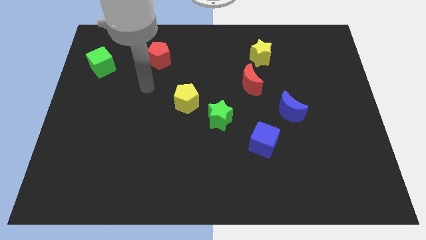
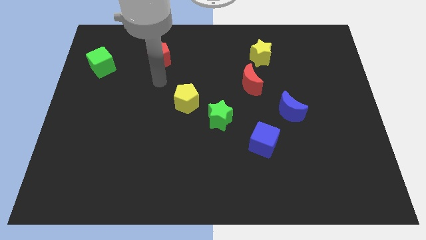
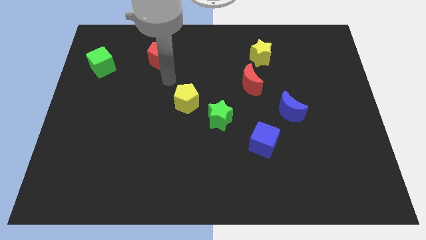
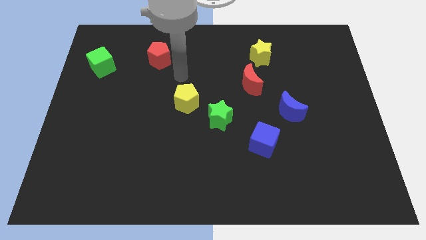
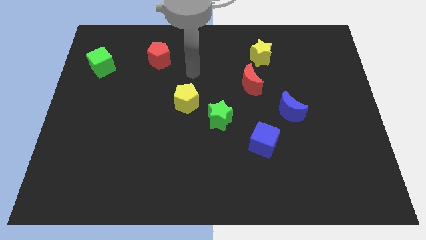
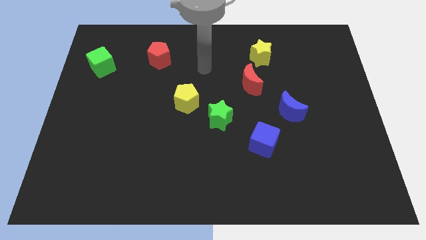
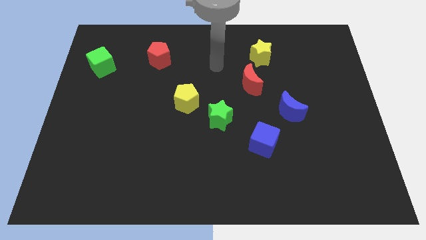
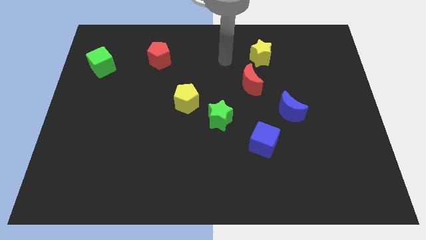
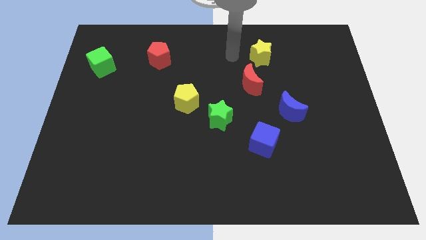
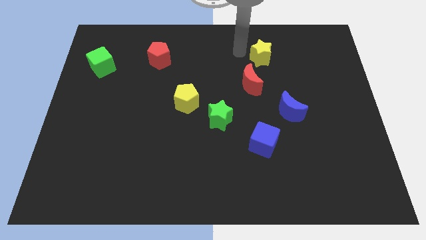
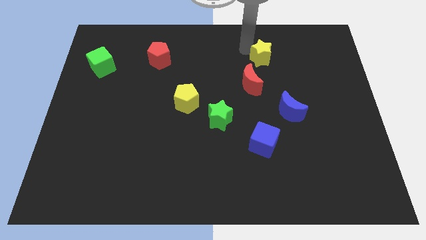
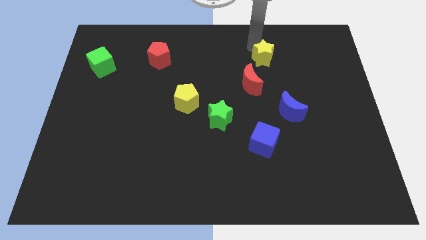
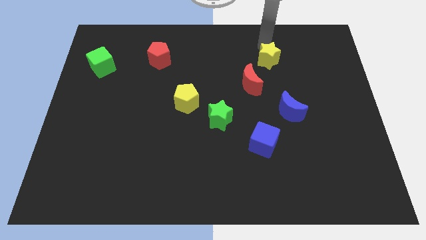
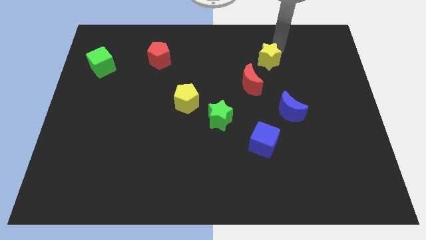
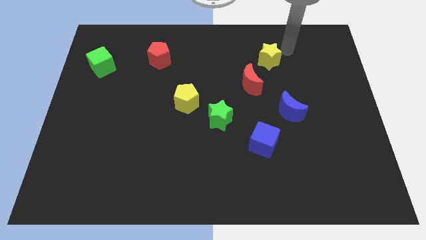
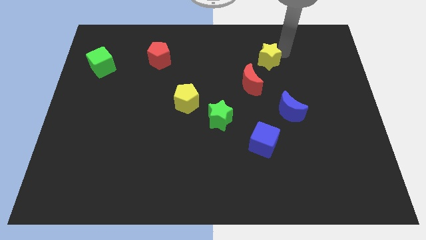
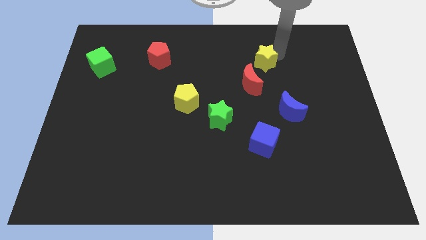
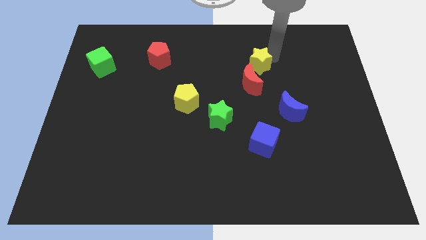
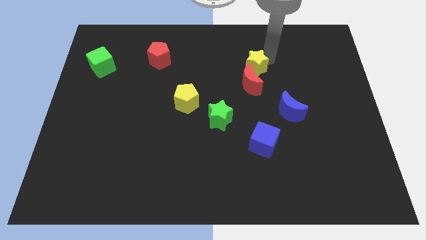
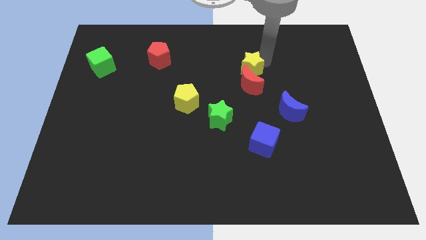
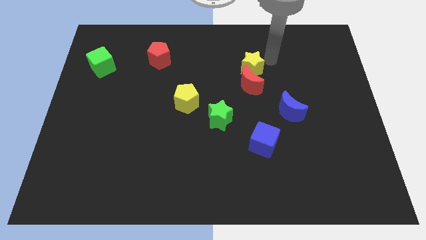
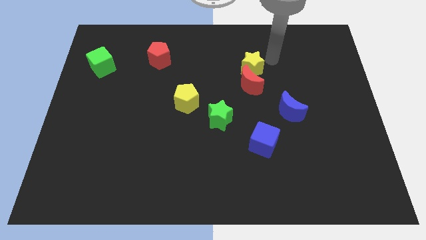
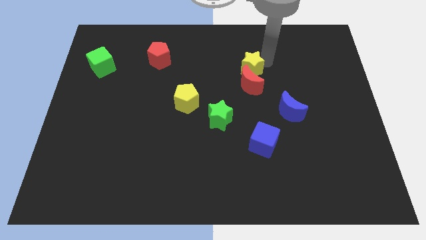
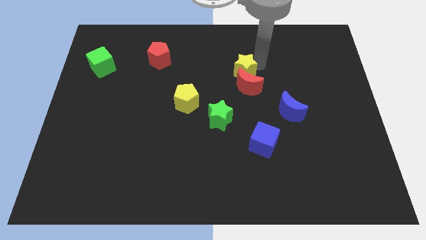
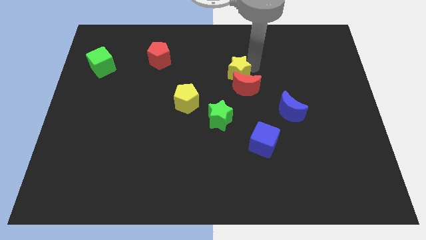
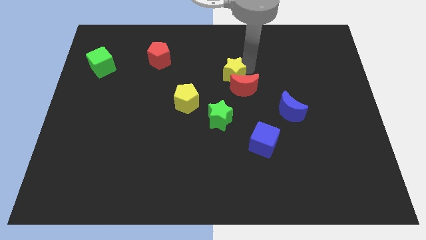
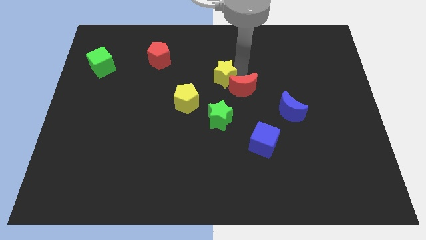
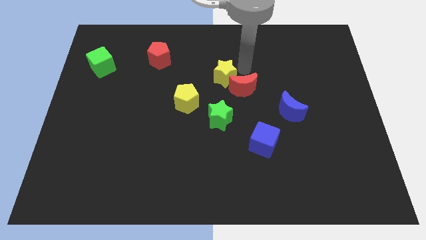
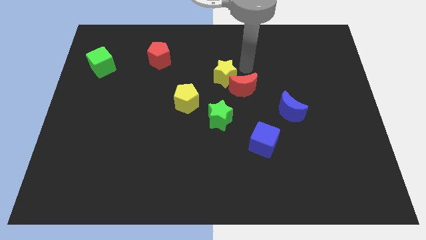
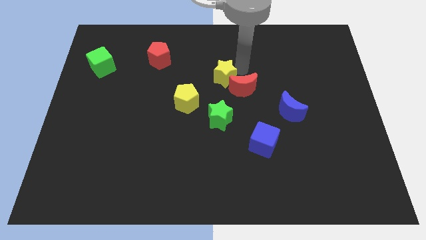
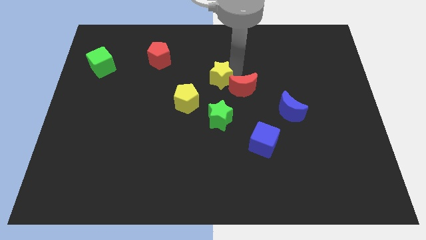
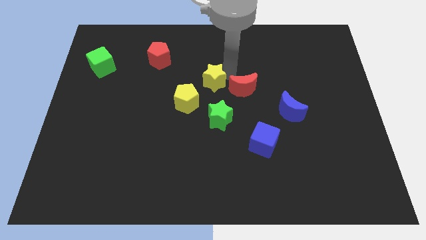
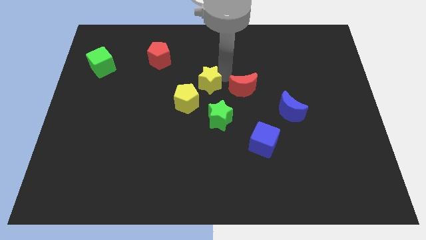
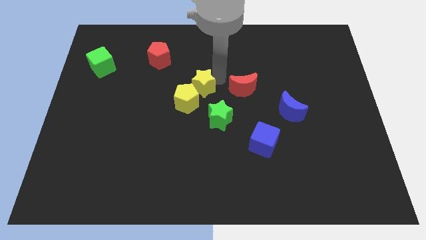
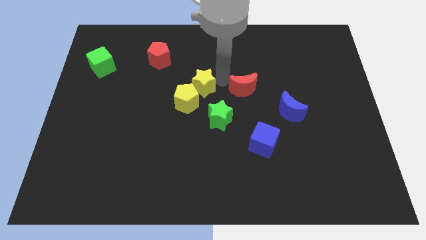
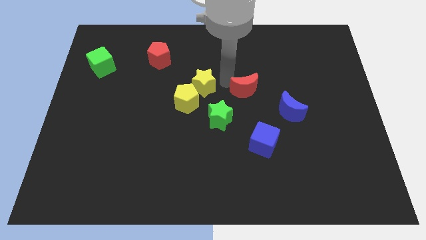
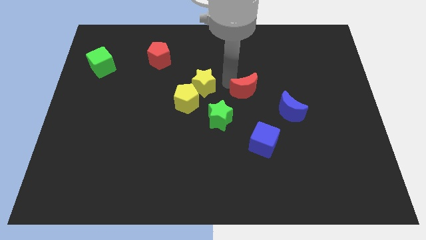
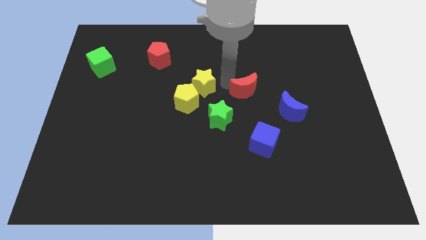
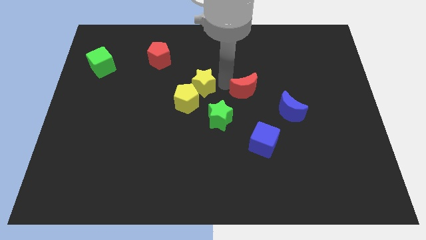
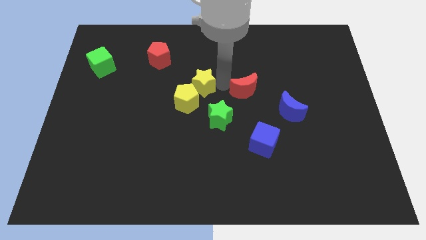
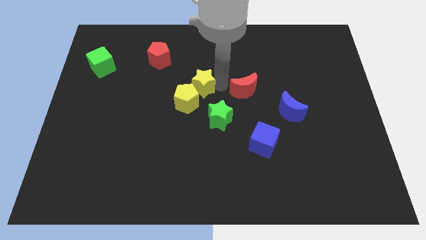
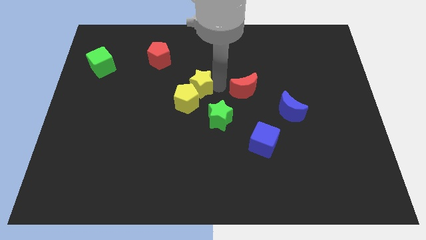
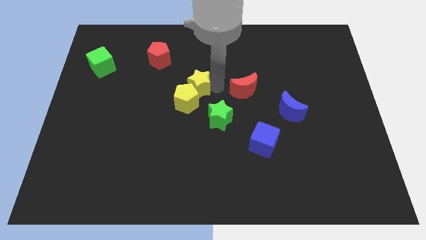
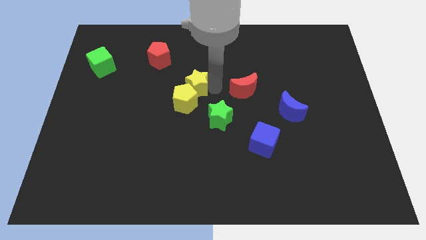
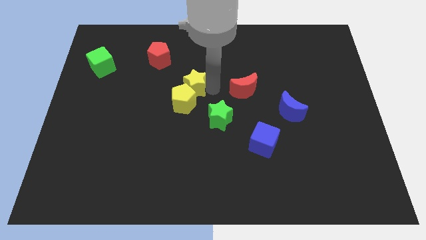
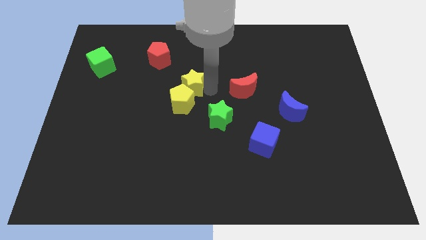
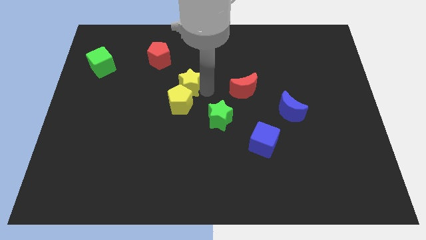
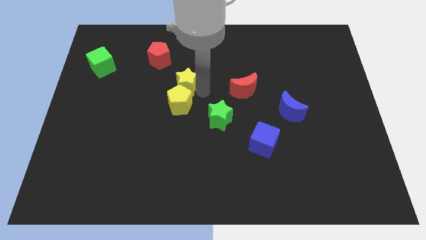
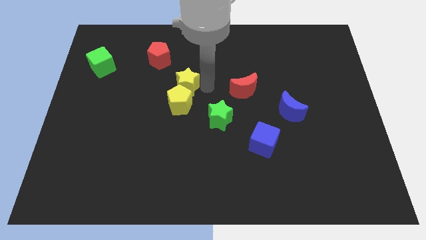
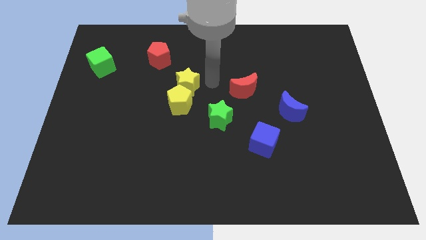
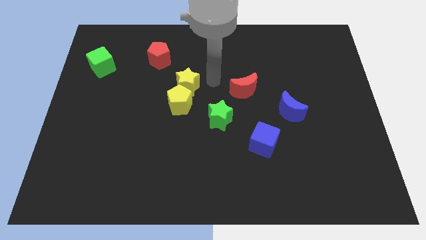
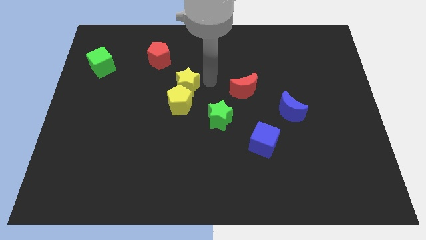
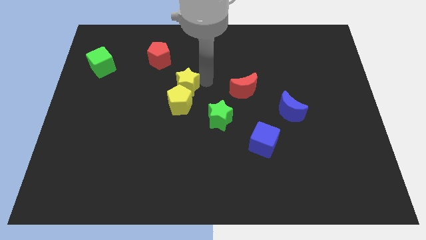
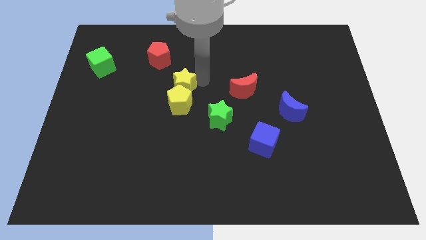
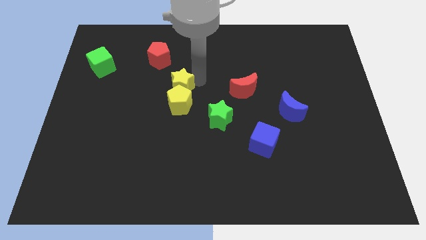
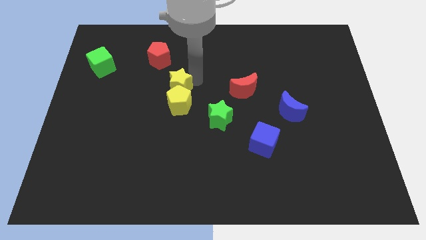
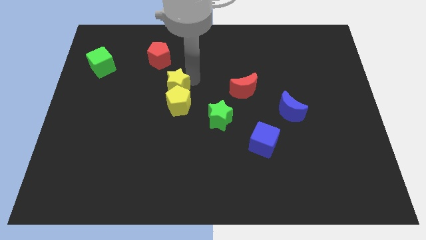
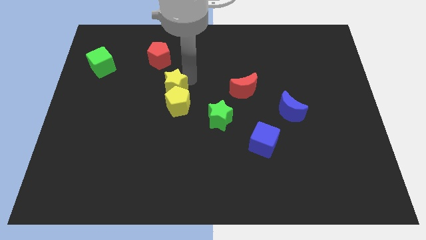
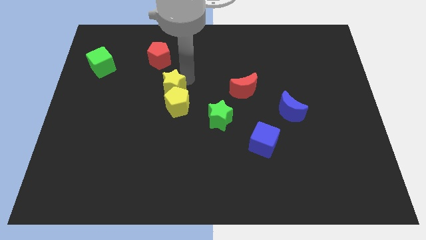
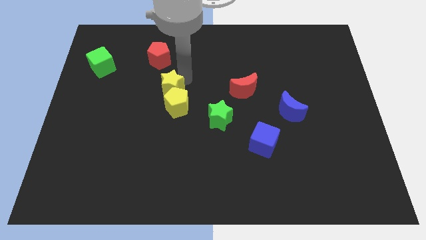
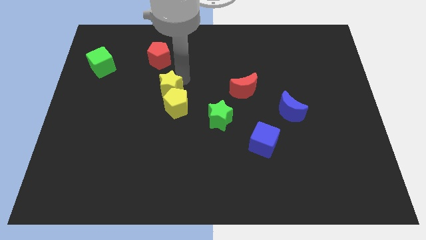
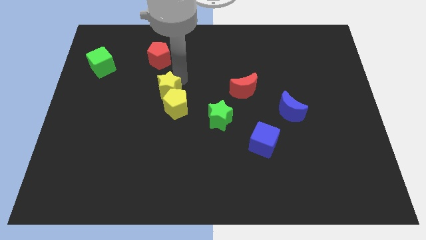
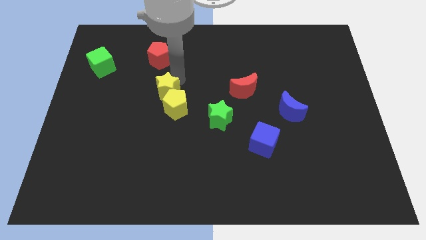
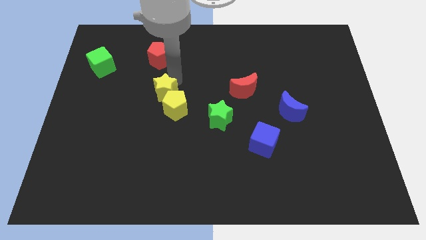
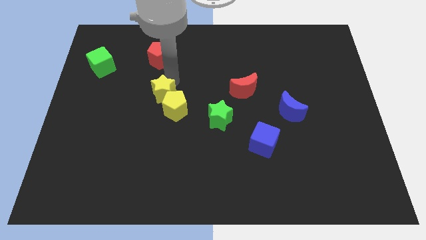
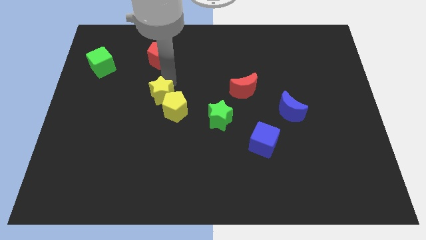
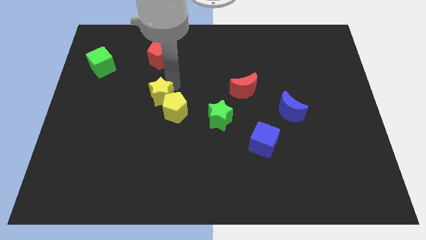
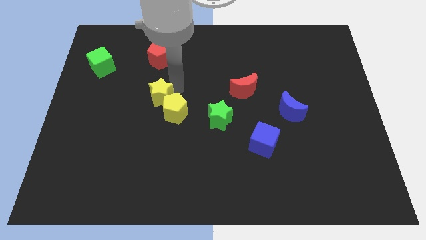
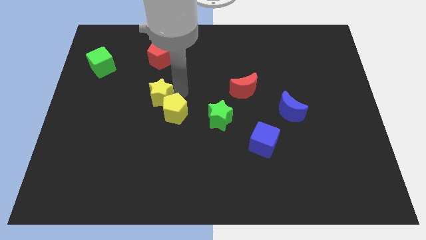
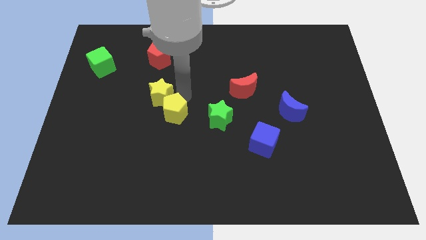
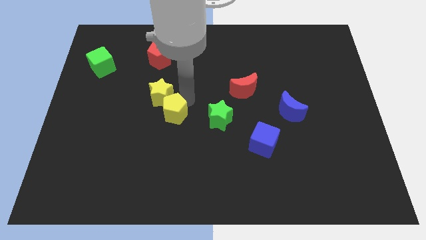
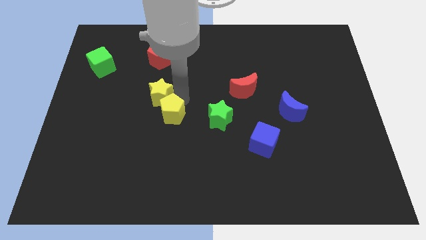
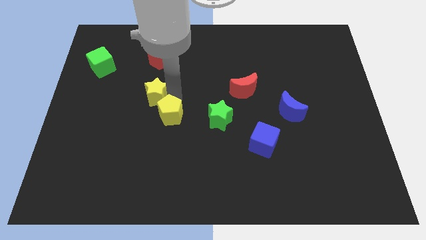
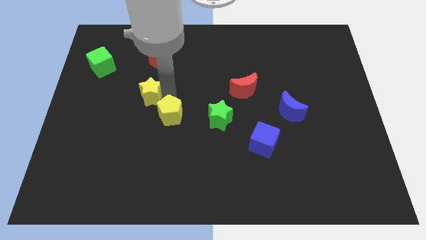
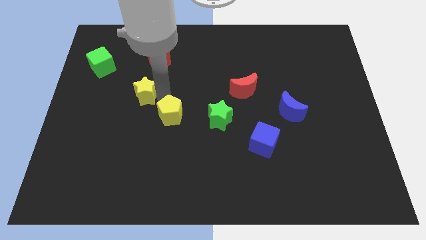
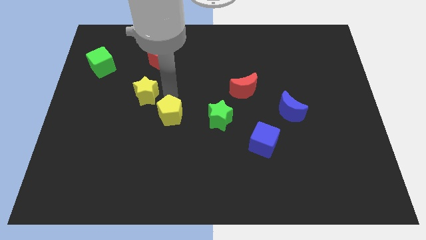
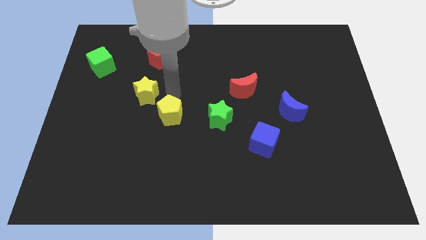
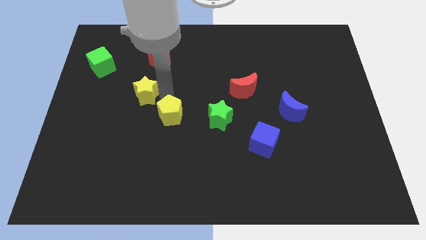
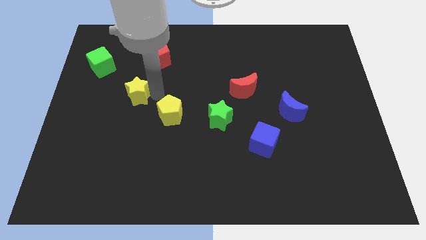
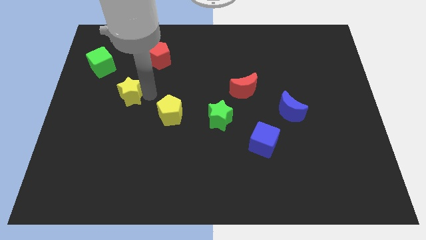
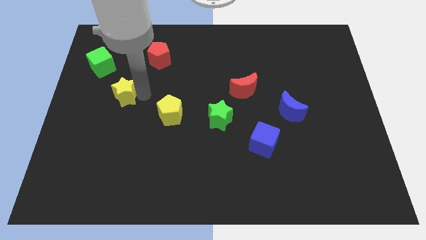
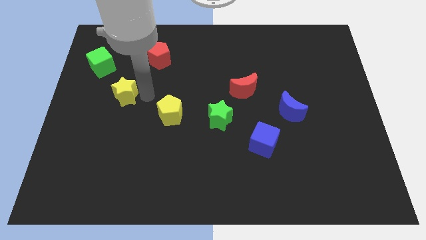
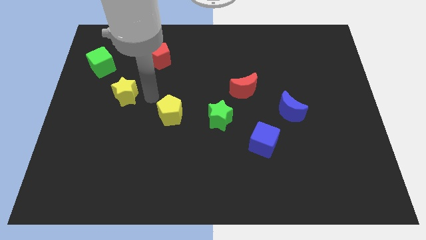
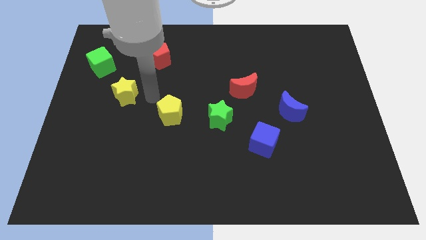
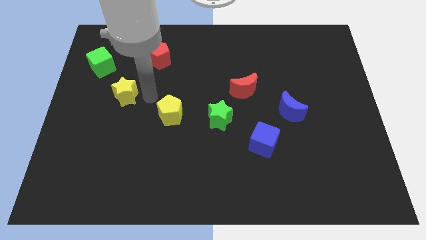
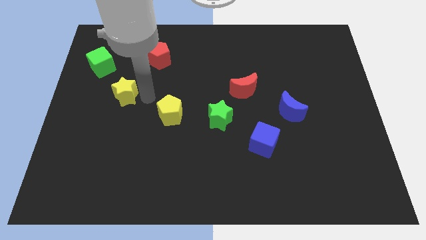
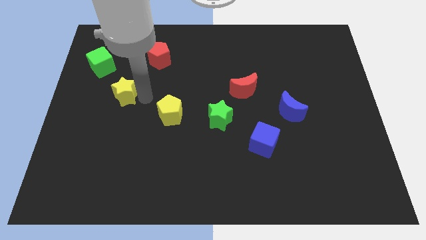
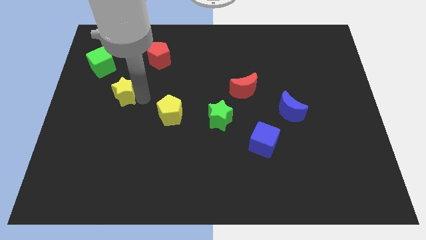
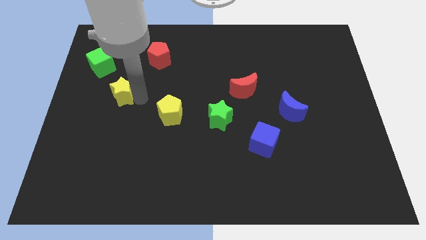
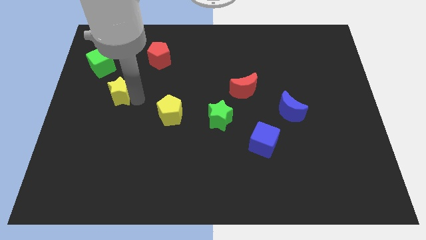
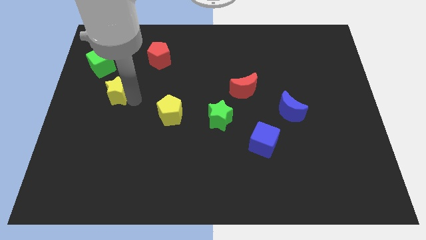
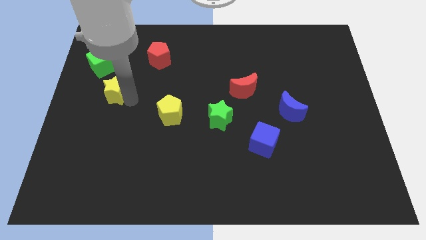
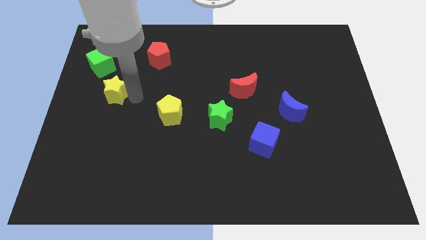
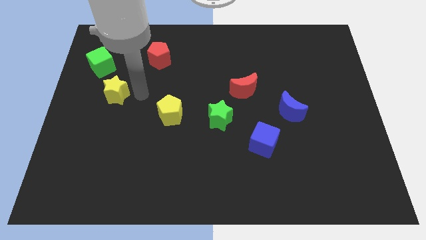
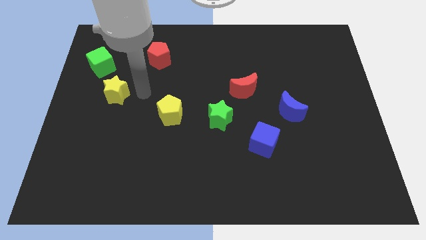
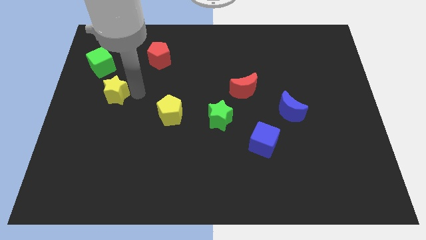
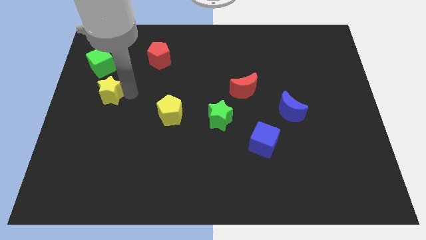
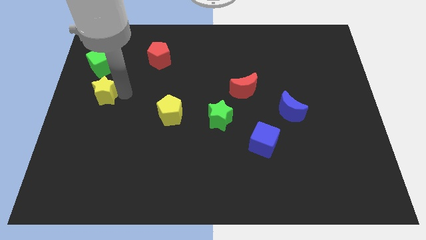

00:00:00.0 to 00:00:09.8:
push the yellow star to the left side
